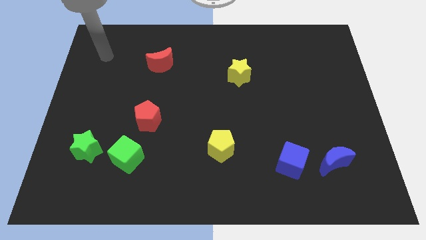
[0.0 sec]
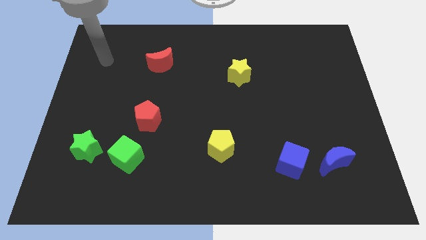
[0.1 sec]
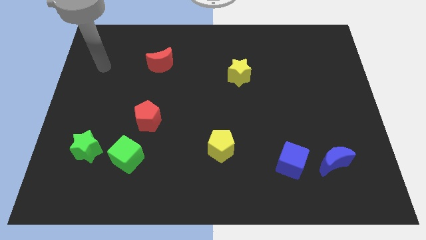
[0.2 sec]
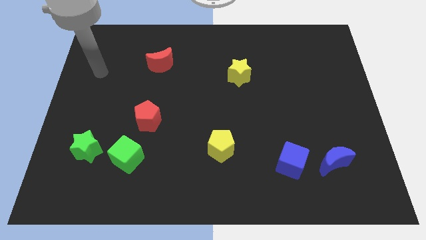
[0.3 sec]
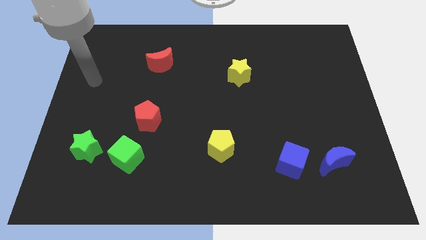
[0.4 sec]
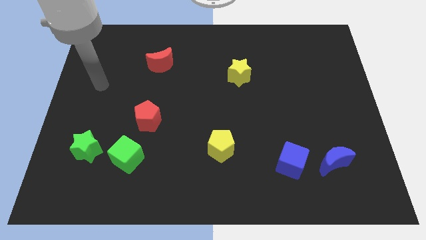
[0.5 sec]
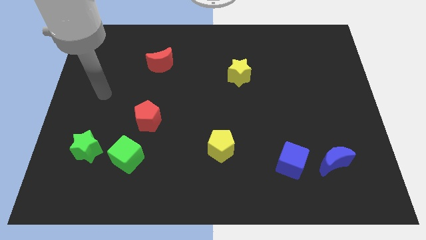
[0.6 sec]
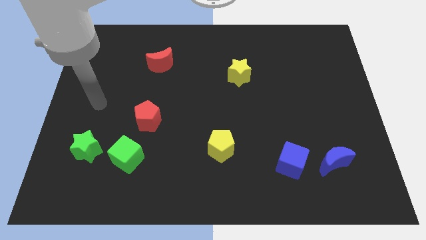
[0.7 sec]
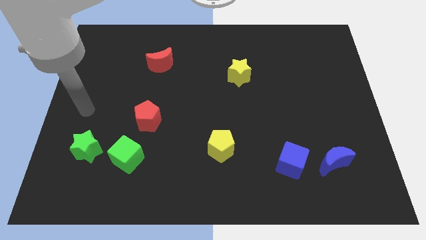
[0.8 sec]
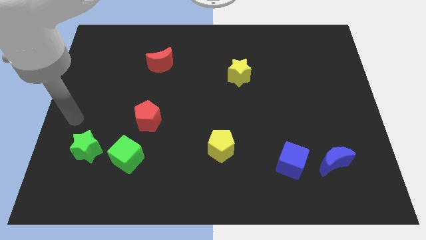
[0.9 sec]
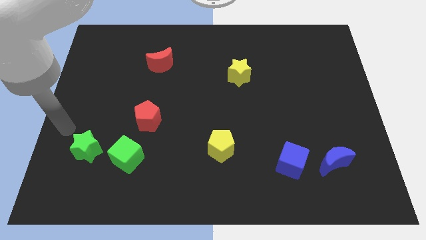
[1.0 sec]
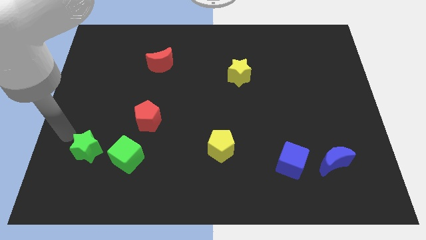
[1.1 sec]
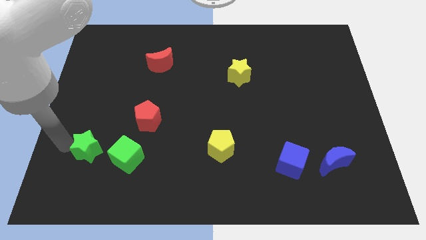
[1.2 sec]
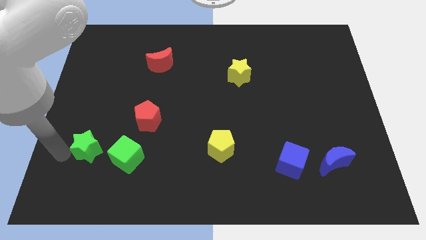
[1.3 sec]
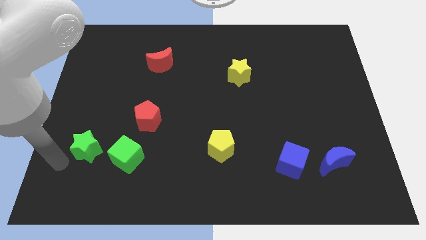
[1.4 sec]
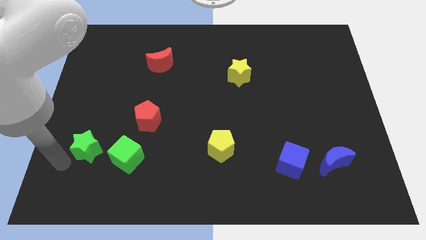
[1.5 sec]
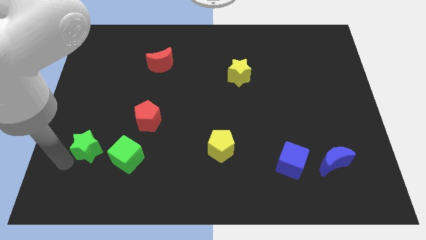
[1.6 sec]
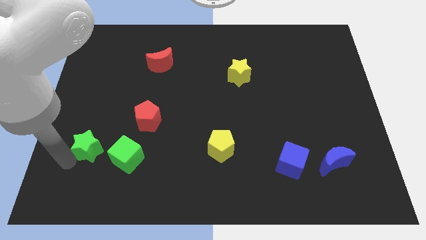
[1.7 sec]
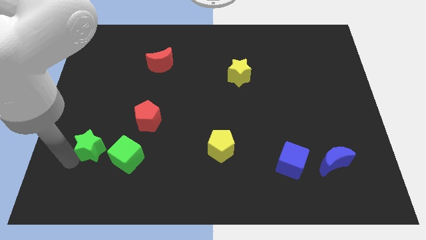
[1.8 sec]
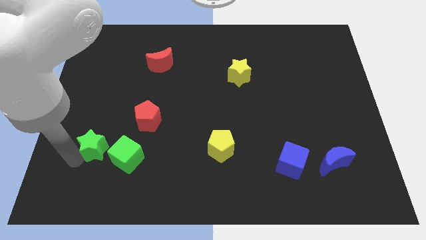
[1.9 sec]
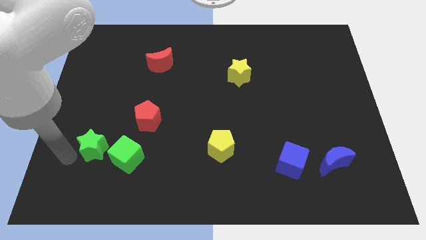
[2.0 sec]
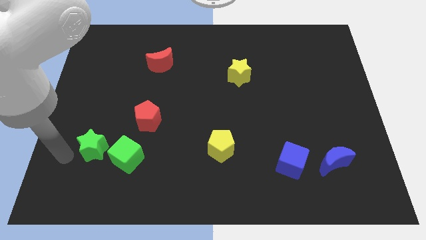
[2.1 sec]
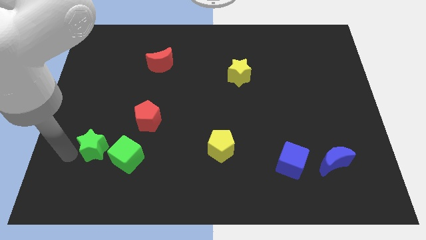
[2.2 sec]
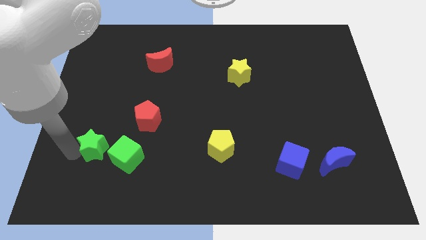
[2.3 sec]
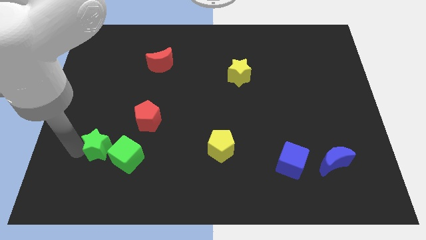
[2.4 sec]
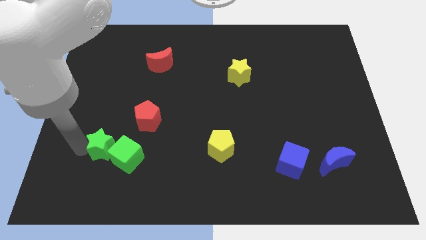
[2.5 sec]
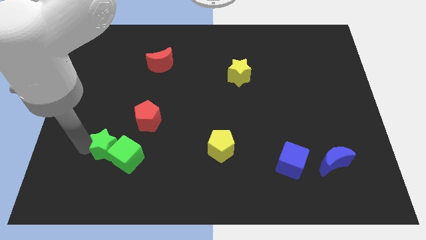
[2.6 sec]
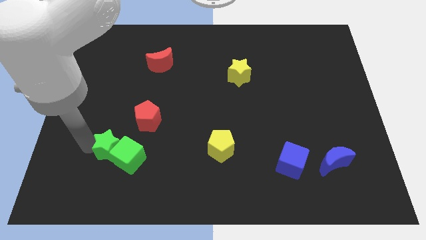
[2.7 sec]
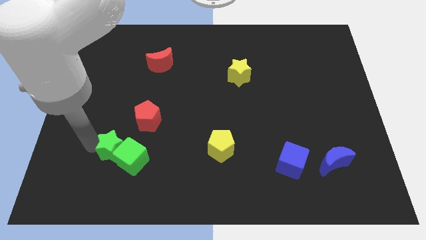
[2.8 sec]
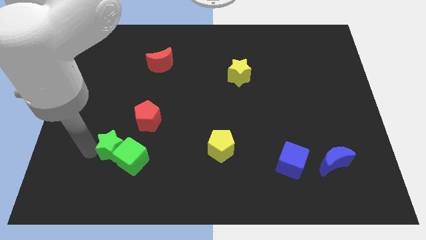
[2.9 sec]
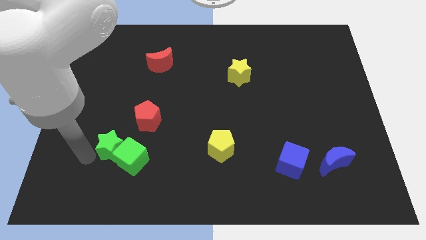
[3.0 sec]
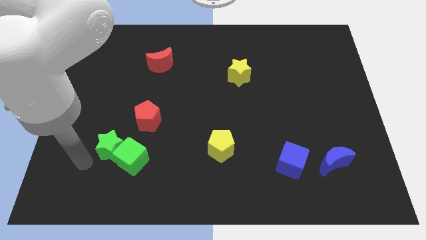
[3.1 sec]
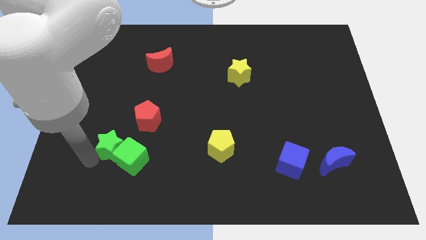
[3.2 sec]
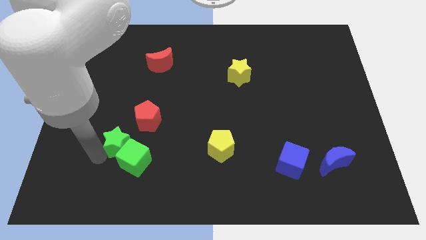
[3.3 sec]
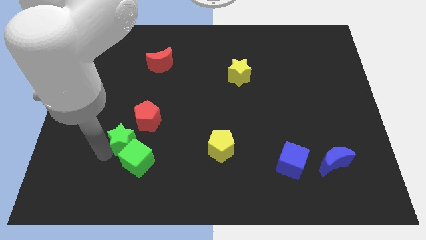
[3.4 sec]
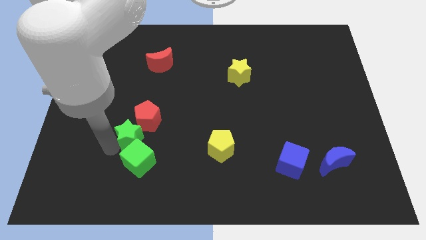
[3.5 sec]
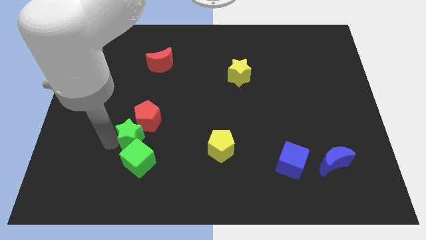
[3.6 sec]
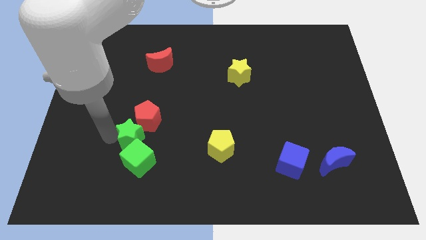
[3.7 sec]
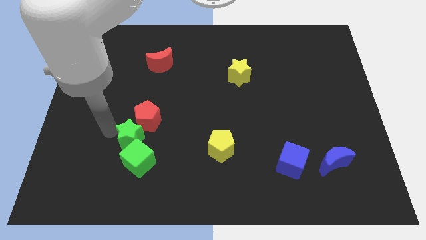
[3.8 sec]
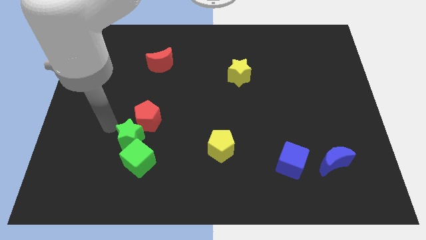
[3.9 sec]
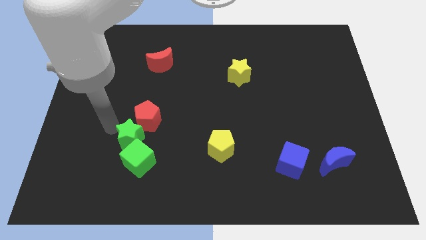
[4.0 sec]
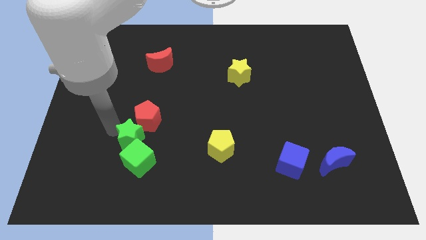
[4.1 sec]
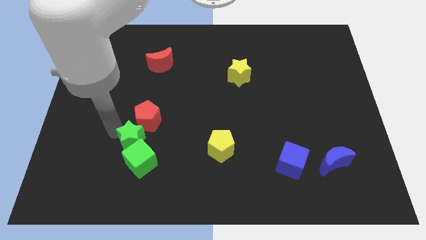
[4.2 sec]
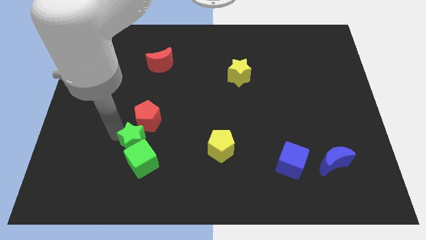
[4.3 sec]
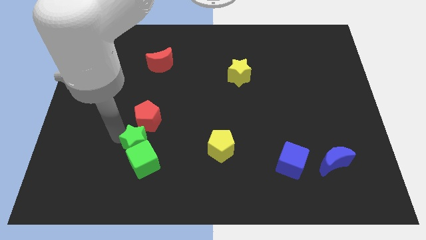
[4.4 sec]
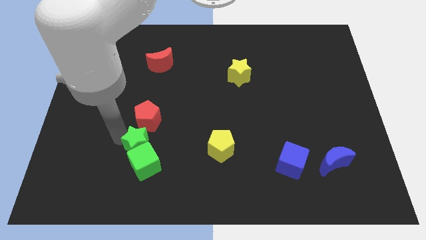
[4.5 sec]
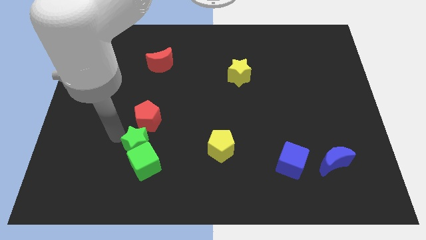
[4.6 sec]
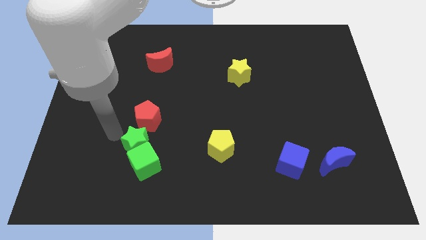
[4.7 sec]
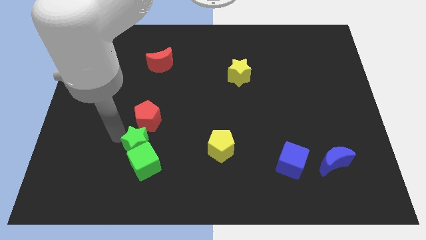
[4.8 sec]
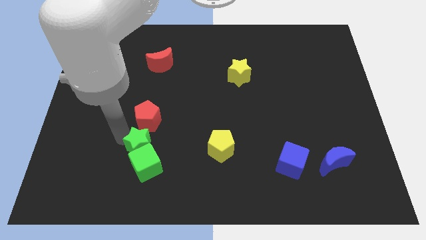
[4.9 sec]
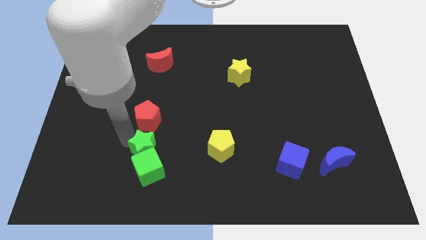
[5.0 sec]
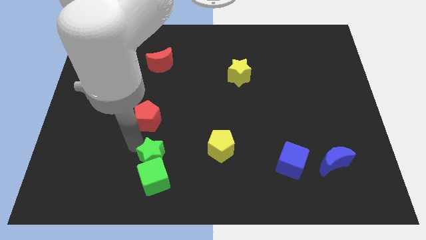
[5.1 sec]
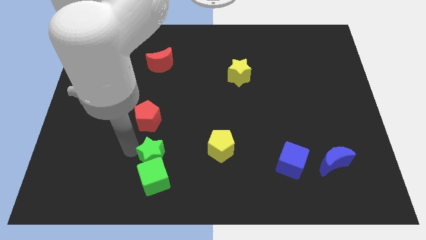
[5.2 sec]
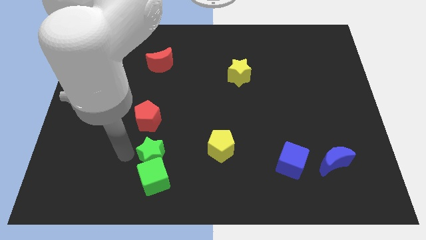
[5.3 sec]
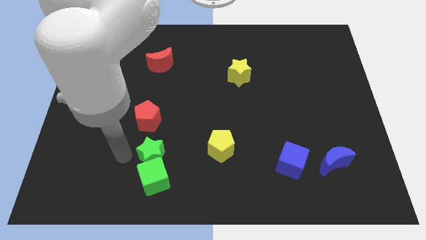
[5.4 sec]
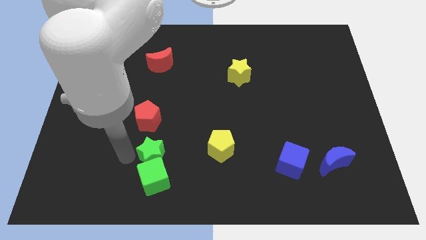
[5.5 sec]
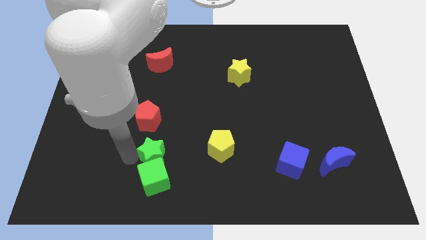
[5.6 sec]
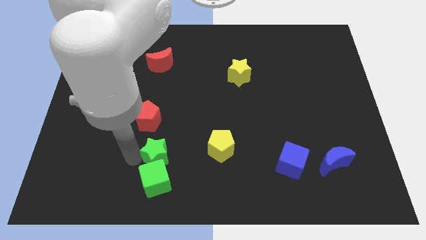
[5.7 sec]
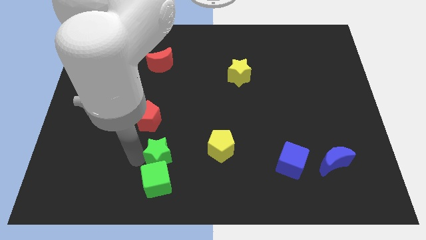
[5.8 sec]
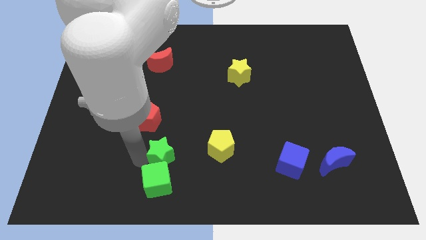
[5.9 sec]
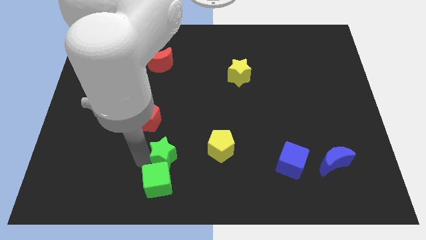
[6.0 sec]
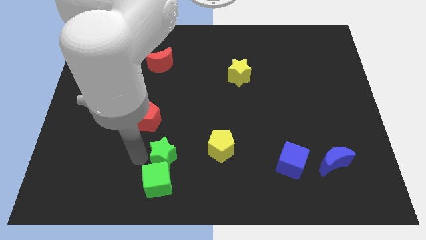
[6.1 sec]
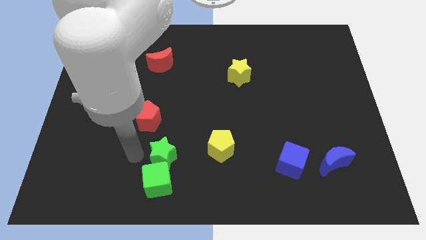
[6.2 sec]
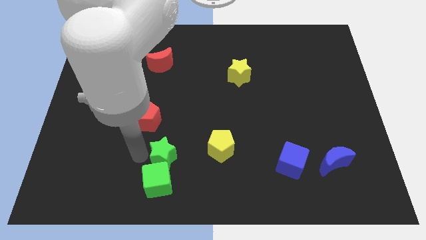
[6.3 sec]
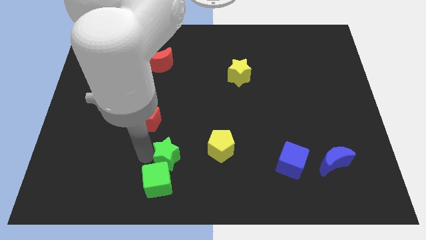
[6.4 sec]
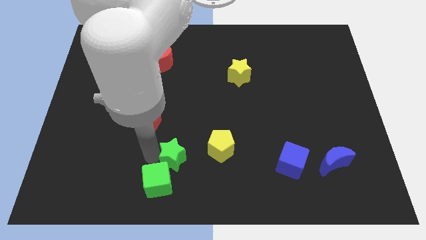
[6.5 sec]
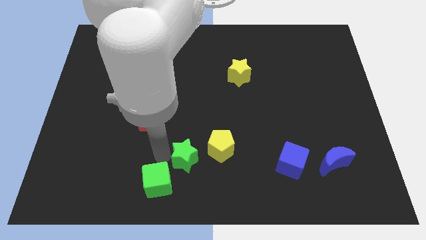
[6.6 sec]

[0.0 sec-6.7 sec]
push the green star right

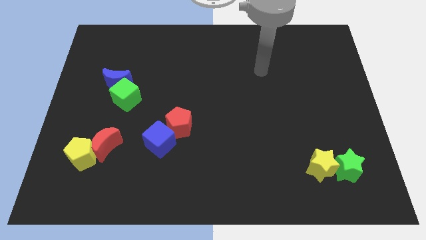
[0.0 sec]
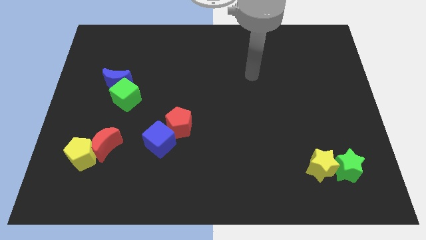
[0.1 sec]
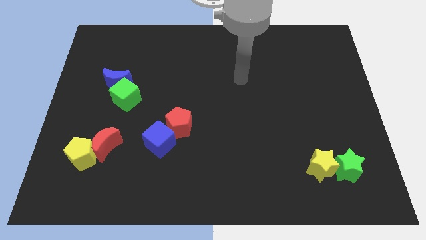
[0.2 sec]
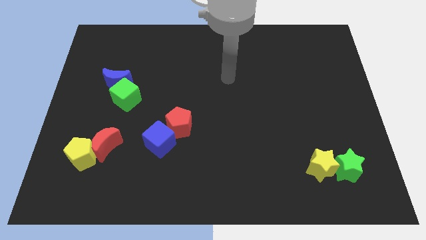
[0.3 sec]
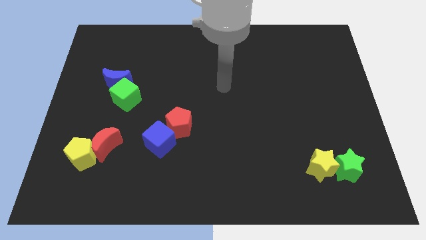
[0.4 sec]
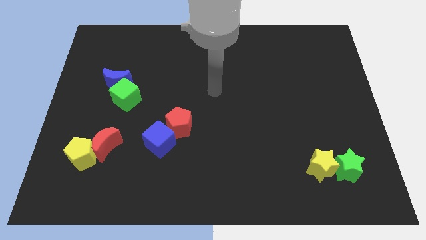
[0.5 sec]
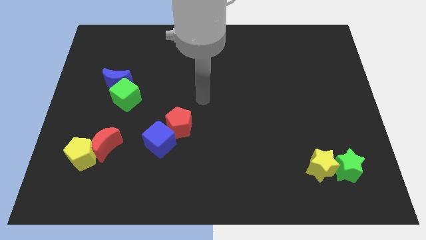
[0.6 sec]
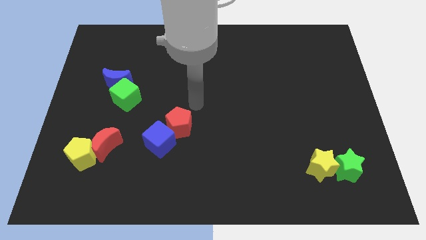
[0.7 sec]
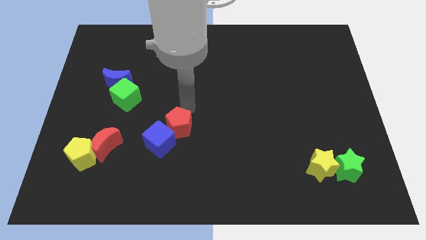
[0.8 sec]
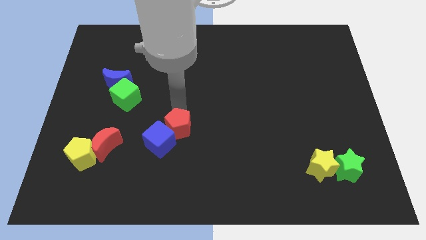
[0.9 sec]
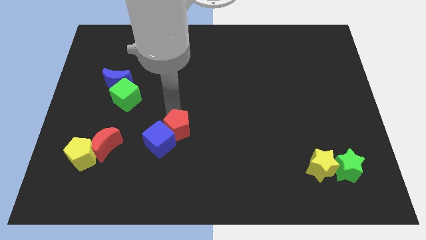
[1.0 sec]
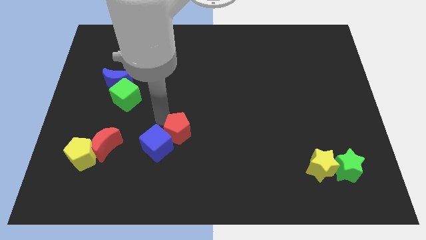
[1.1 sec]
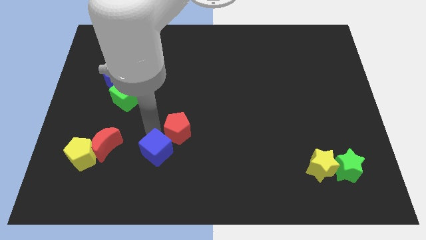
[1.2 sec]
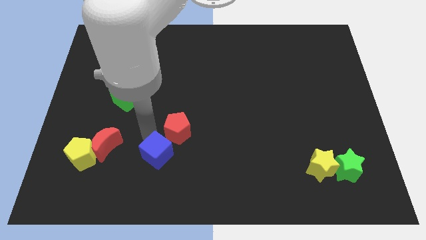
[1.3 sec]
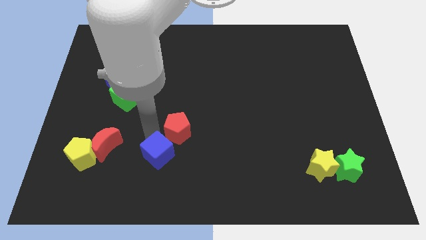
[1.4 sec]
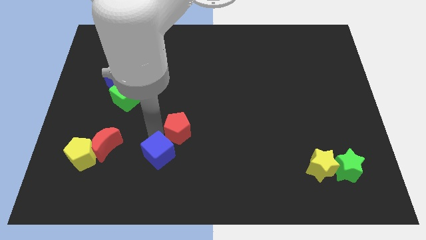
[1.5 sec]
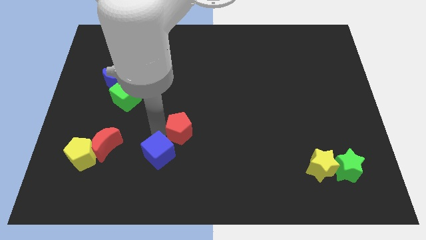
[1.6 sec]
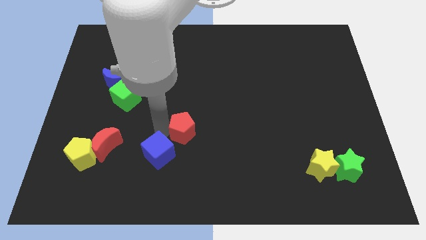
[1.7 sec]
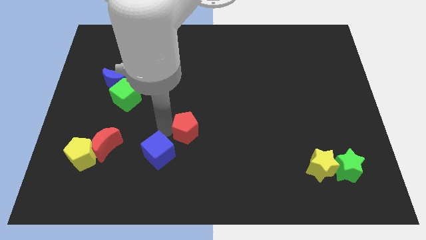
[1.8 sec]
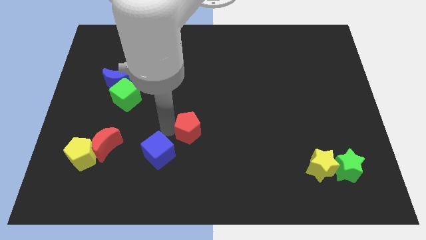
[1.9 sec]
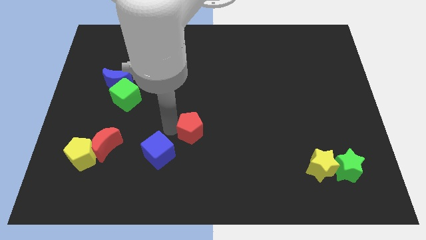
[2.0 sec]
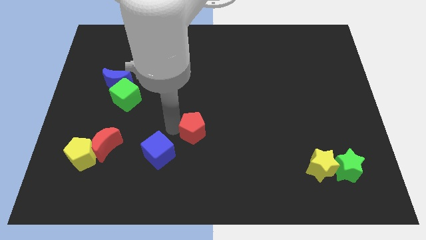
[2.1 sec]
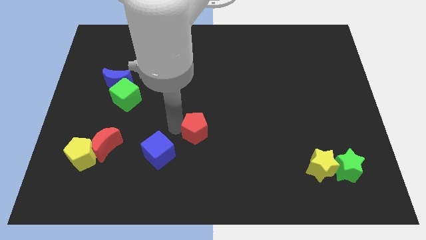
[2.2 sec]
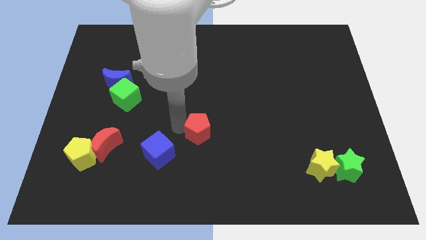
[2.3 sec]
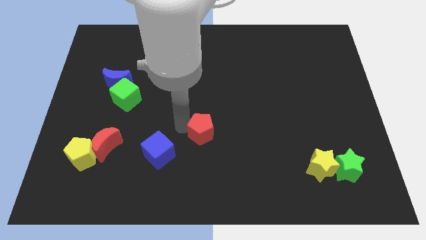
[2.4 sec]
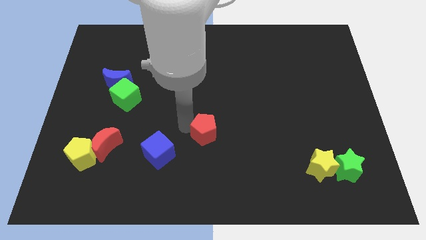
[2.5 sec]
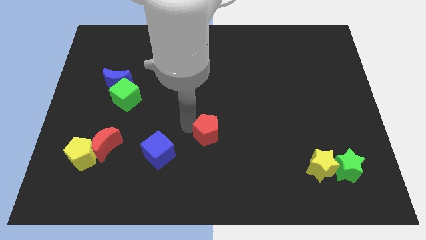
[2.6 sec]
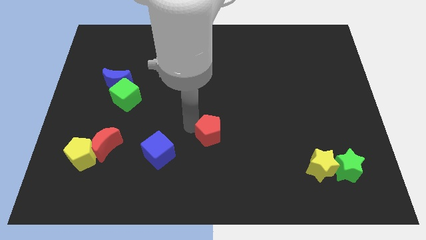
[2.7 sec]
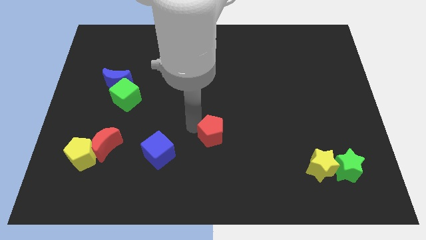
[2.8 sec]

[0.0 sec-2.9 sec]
slide the red pentagon to the right a bit
